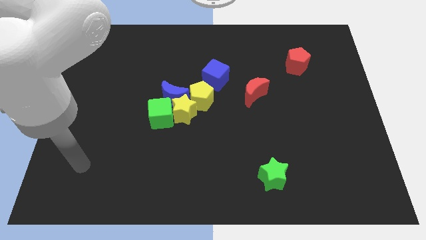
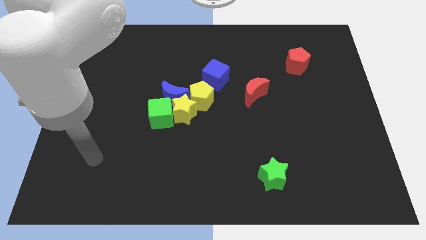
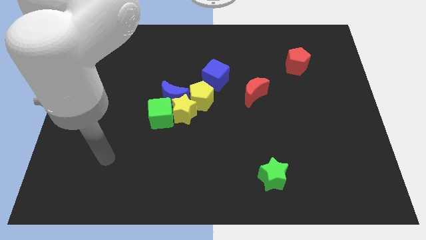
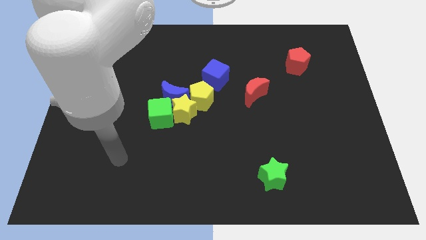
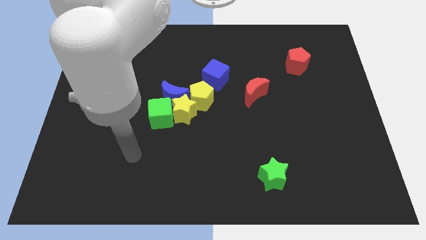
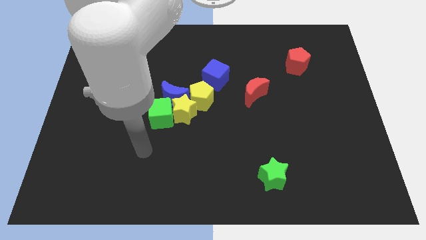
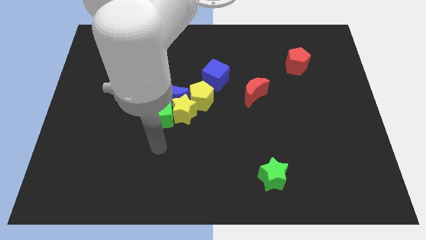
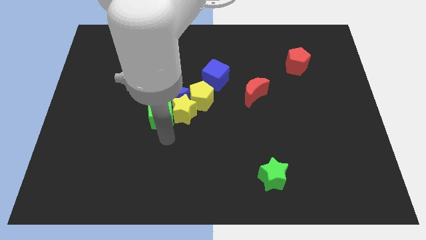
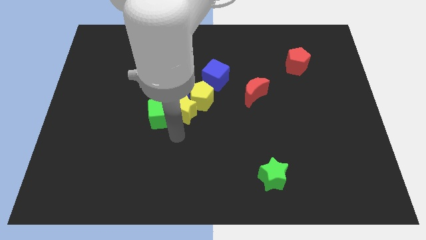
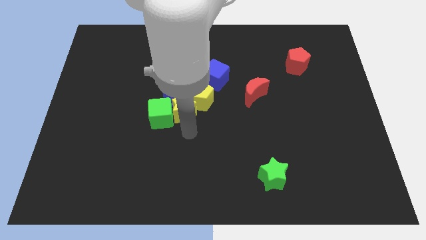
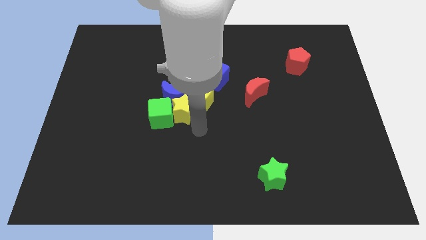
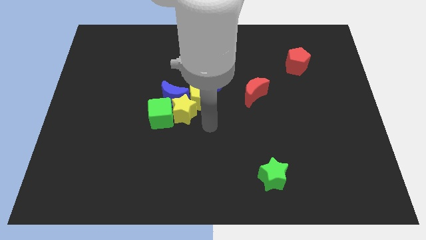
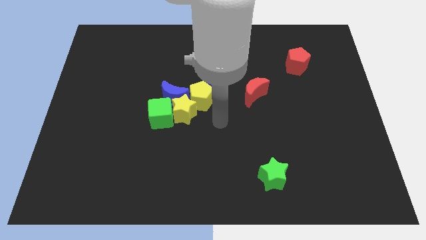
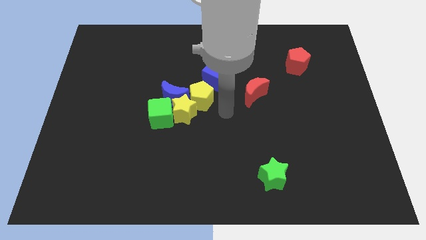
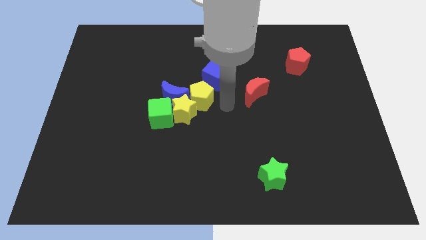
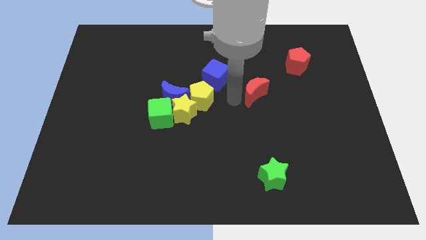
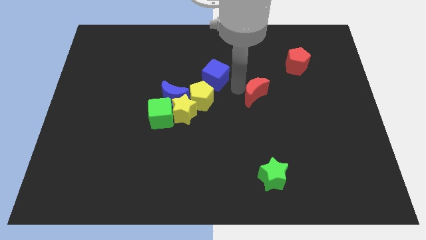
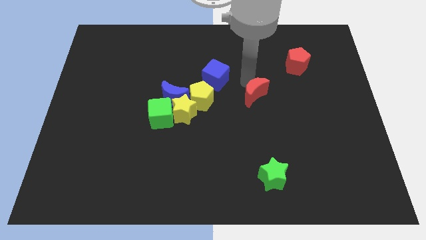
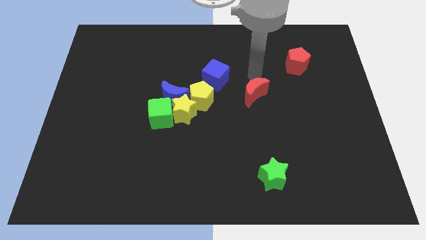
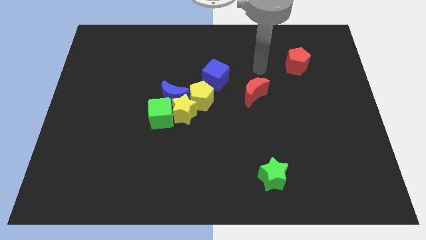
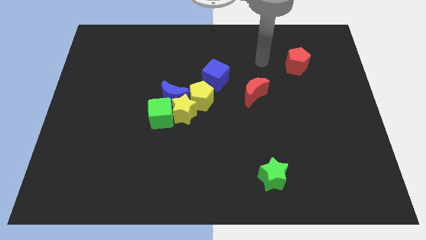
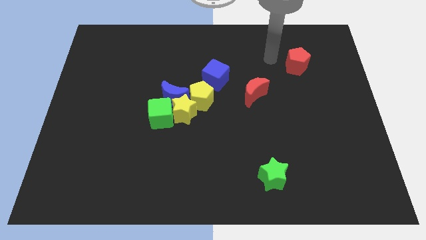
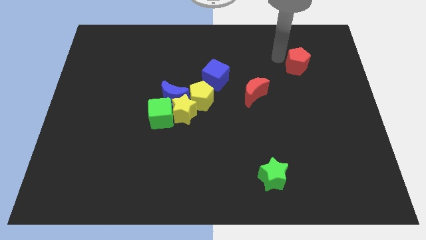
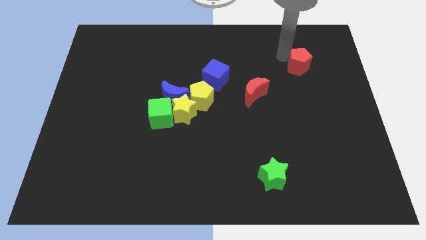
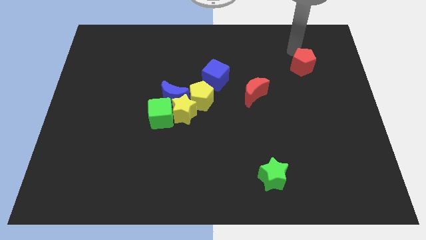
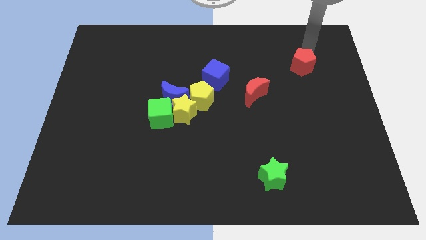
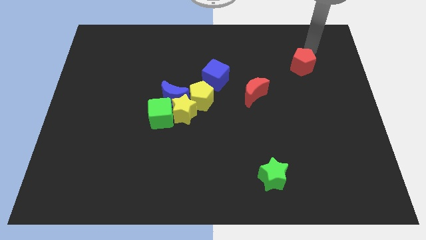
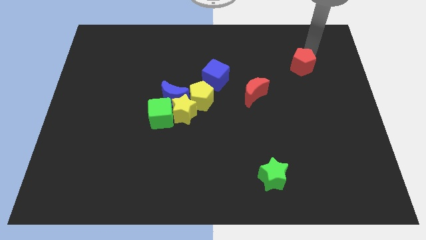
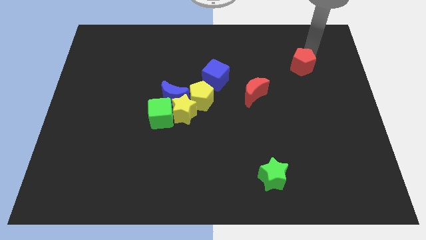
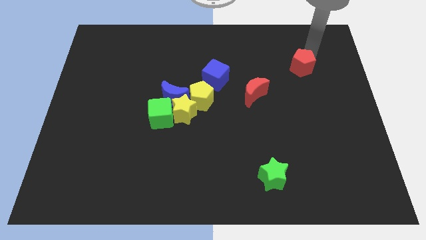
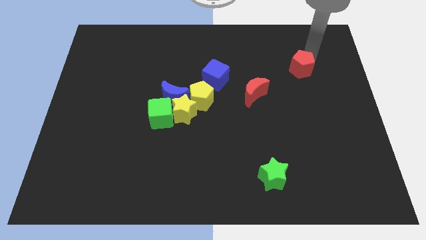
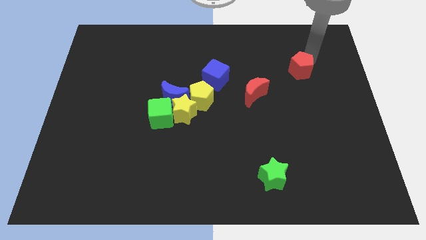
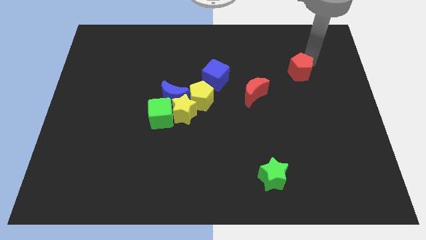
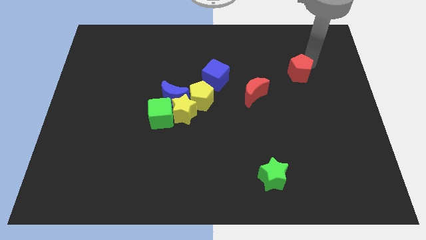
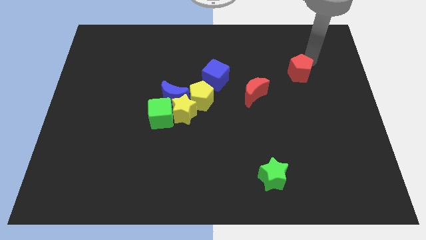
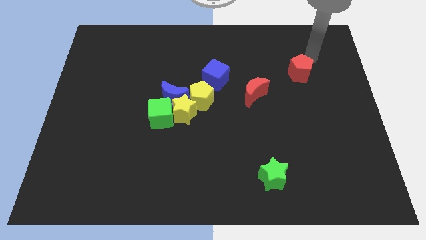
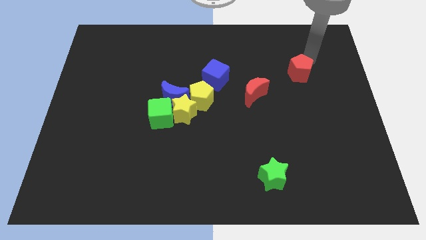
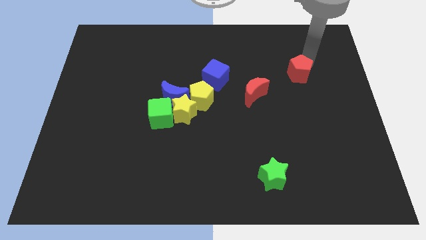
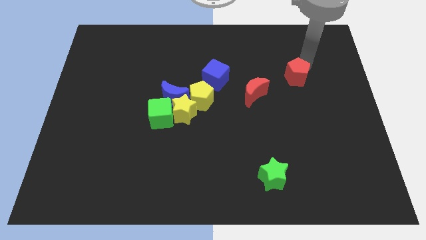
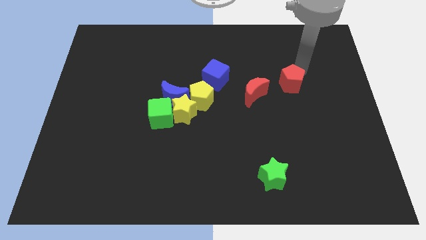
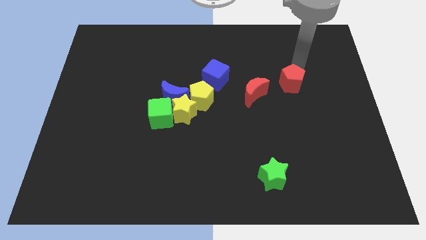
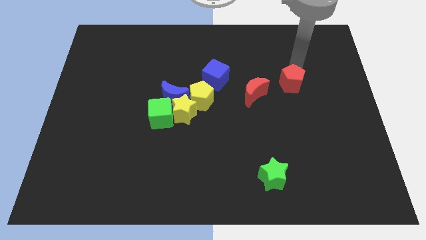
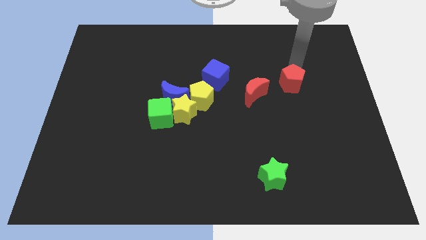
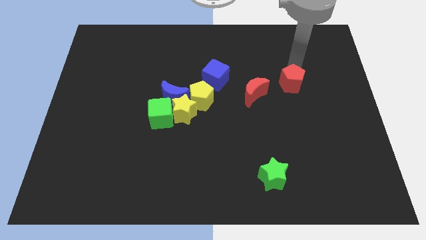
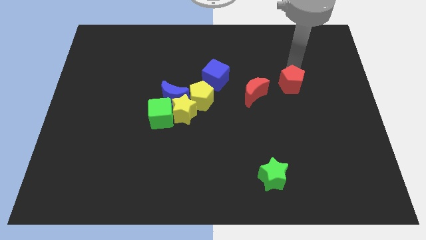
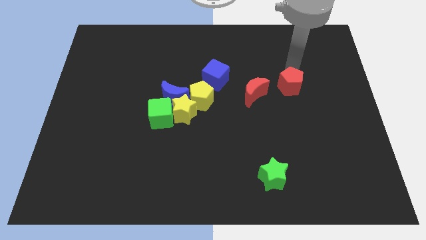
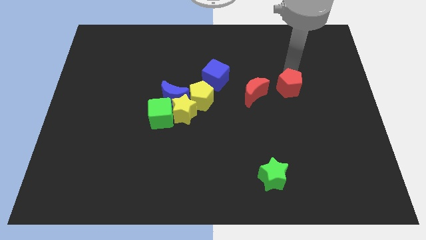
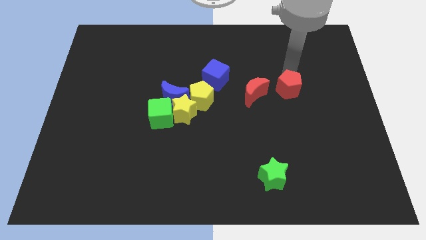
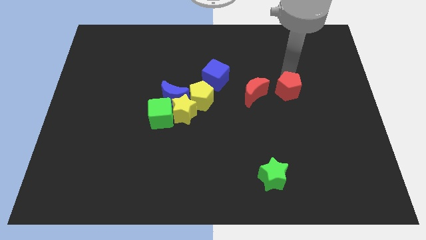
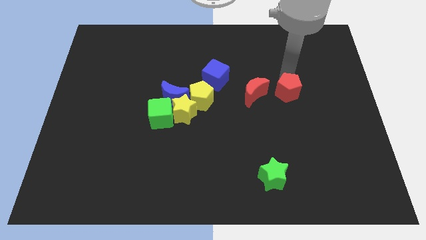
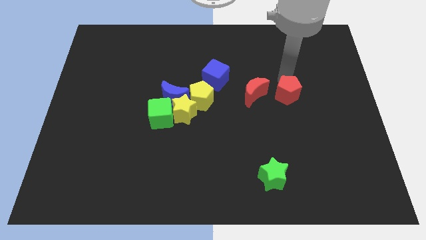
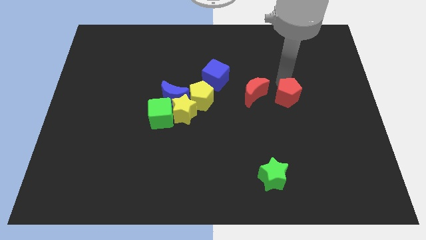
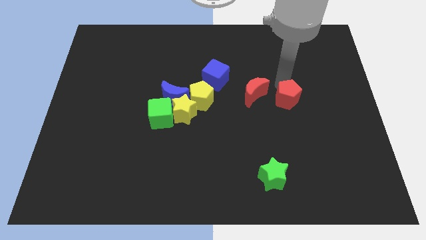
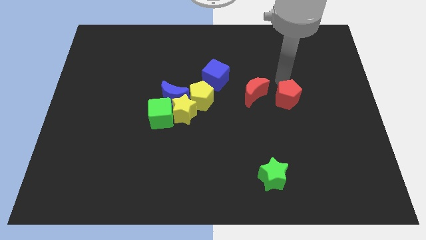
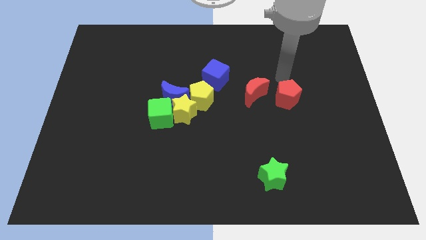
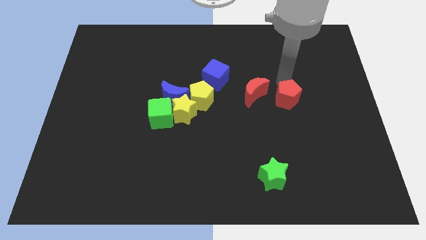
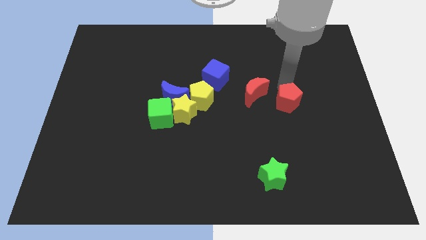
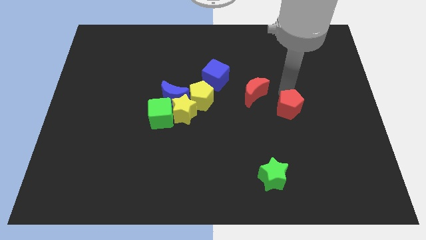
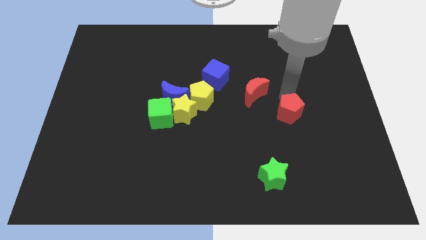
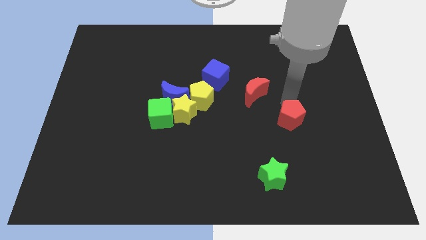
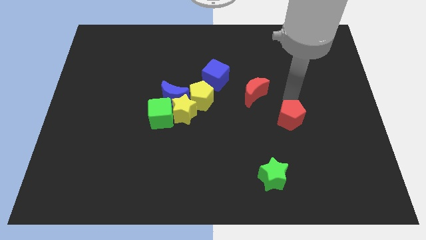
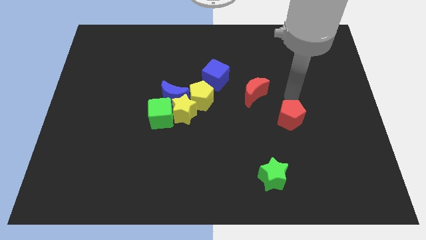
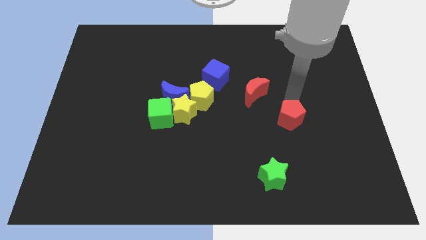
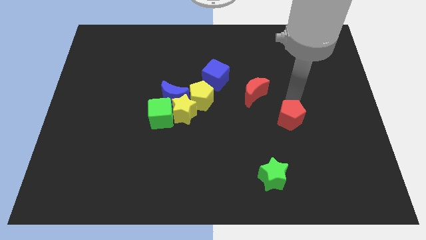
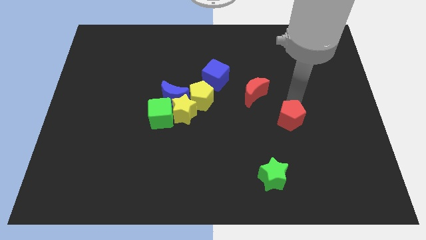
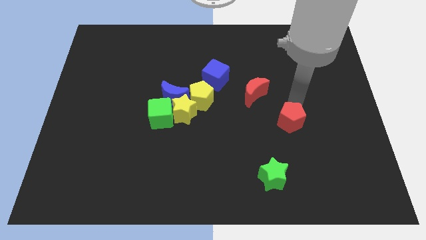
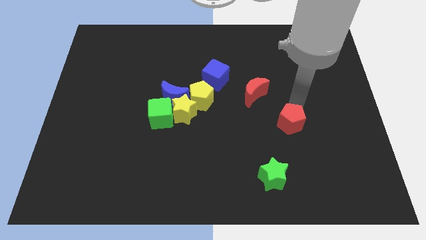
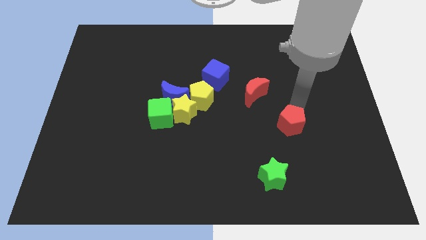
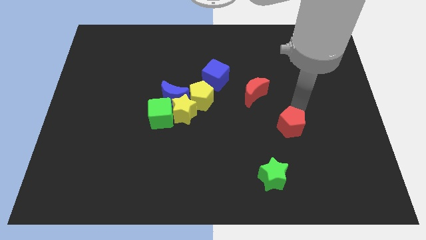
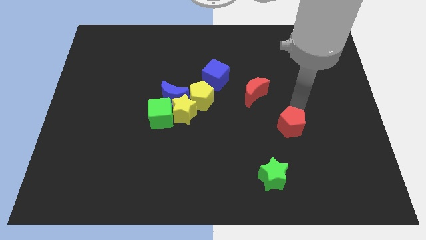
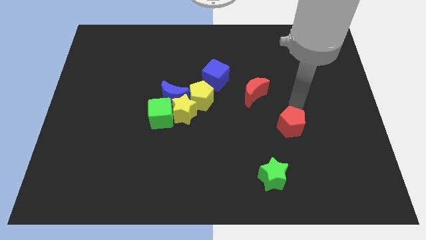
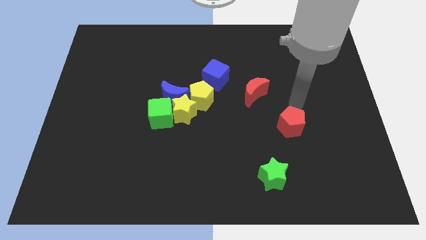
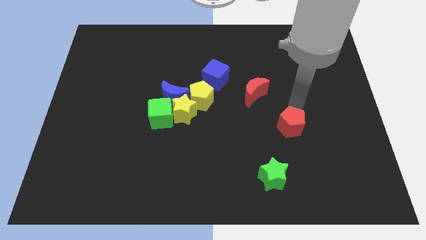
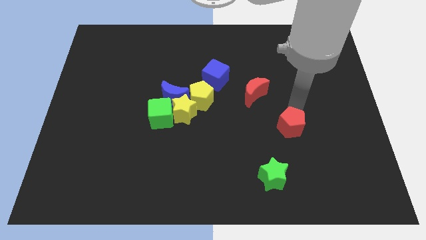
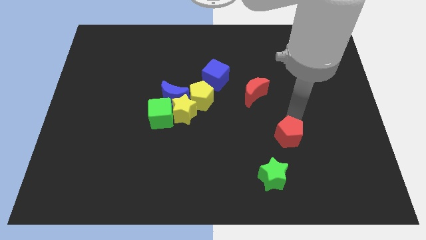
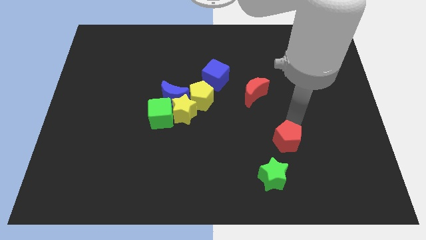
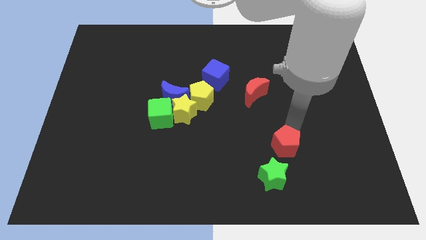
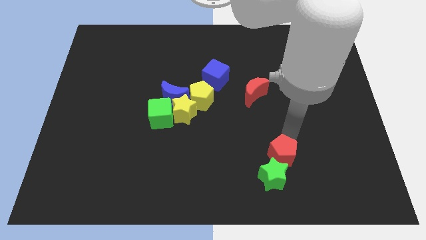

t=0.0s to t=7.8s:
push the red pentagon towards the green star
